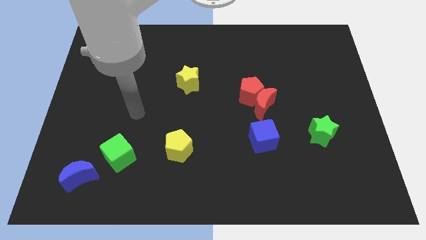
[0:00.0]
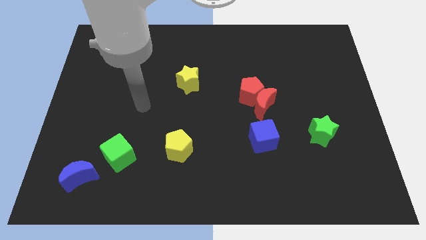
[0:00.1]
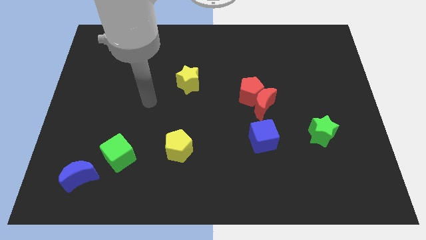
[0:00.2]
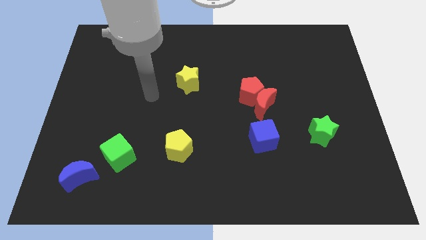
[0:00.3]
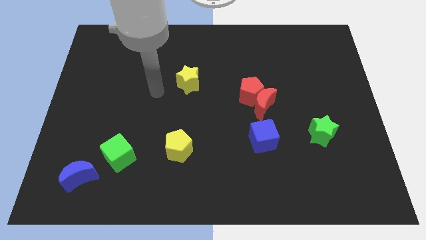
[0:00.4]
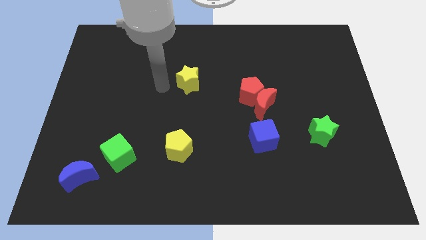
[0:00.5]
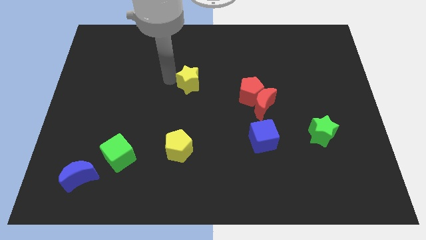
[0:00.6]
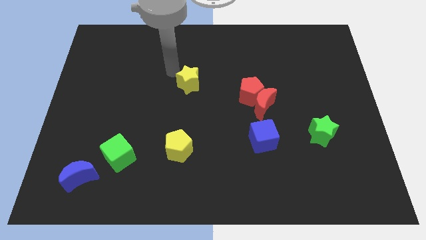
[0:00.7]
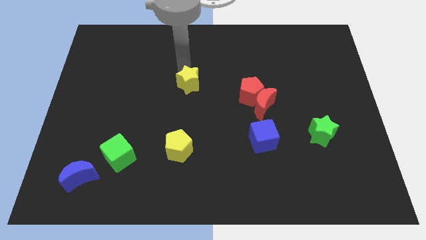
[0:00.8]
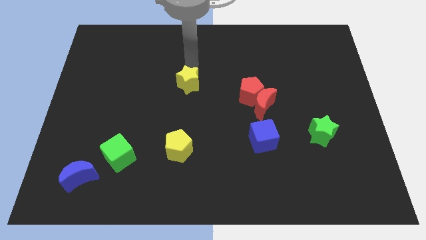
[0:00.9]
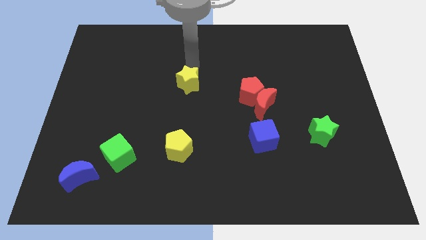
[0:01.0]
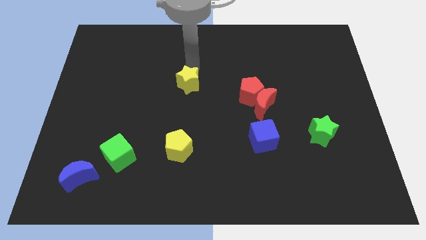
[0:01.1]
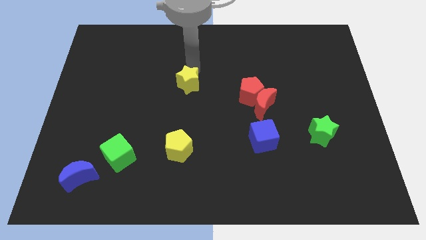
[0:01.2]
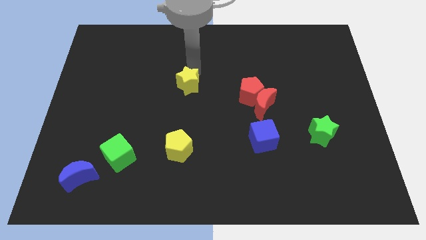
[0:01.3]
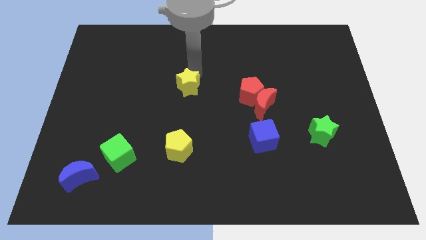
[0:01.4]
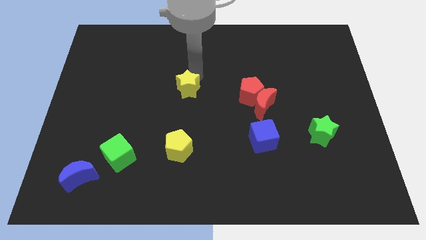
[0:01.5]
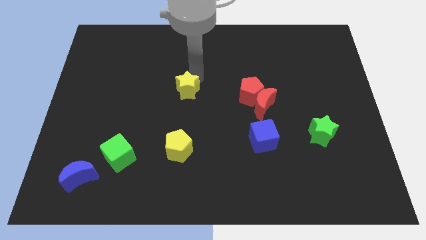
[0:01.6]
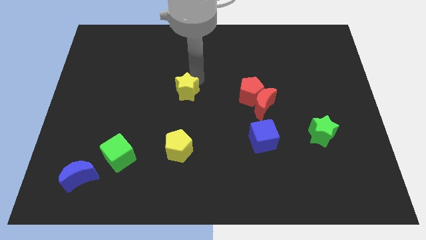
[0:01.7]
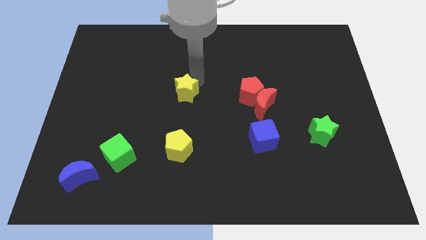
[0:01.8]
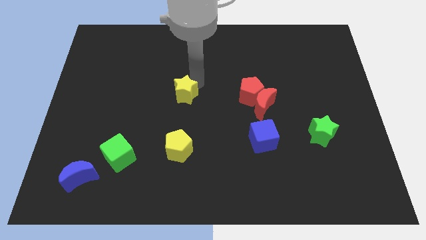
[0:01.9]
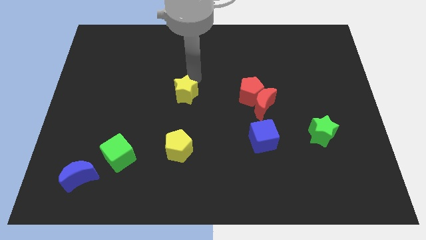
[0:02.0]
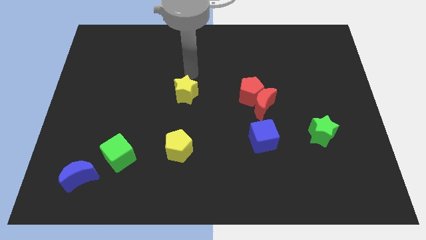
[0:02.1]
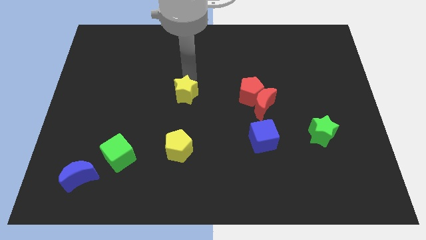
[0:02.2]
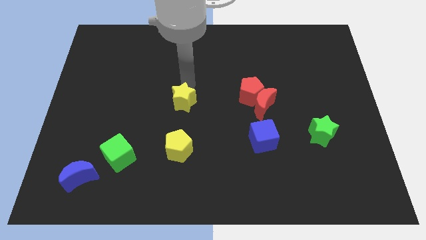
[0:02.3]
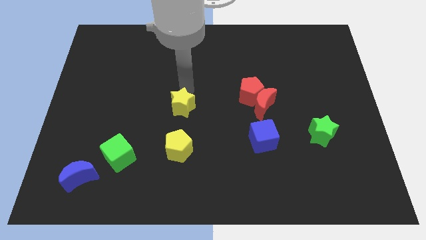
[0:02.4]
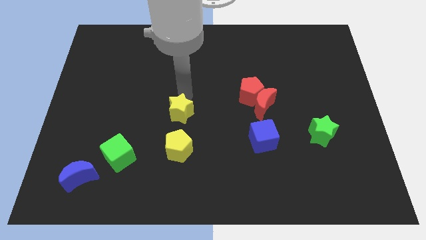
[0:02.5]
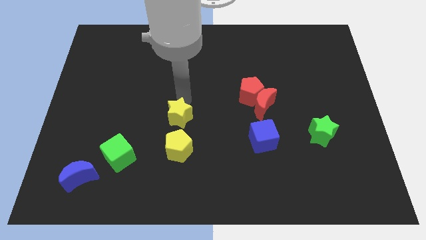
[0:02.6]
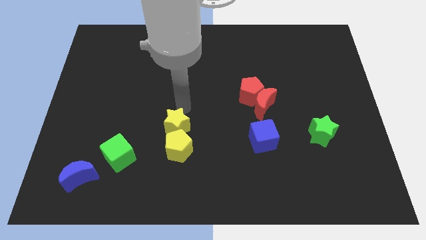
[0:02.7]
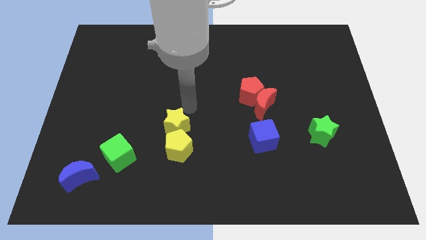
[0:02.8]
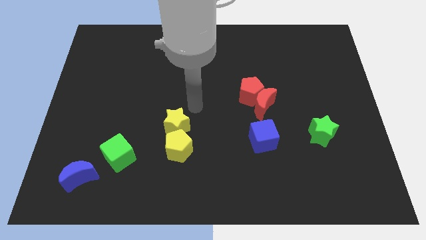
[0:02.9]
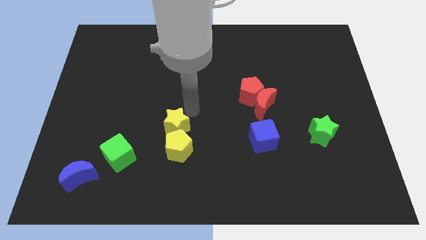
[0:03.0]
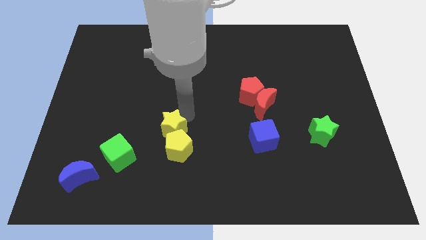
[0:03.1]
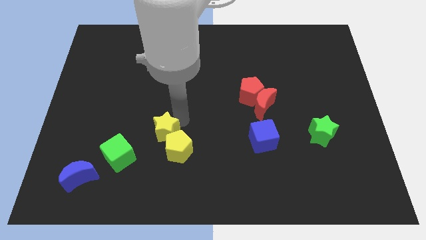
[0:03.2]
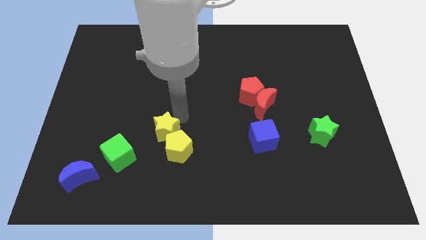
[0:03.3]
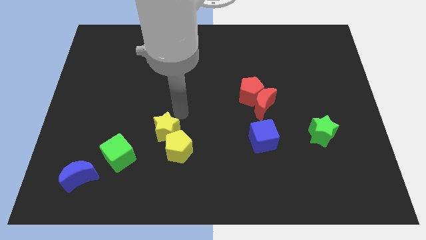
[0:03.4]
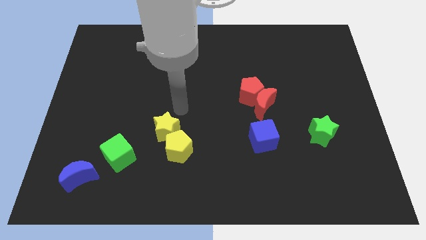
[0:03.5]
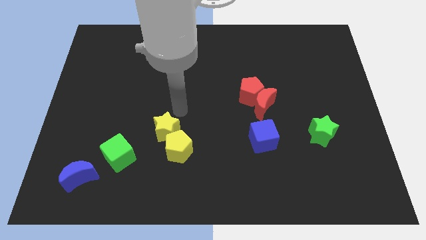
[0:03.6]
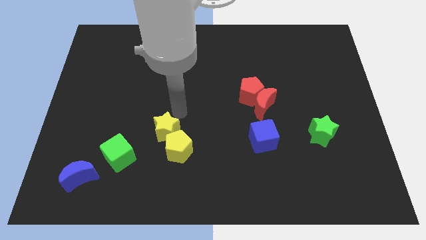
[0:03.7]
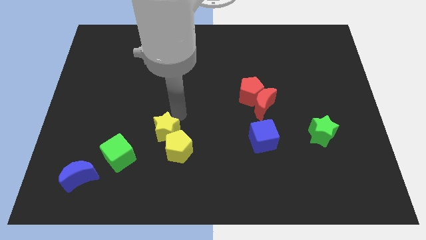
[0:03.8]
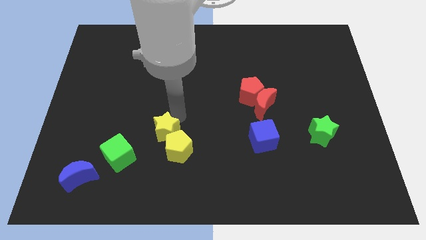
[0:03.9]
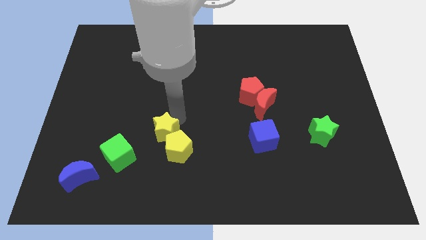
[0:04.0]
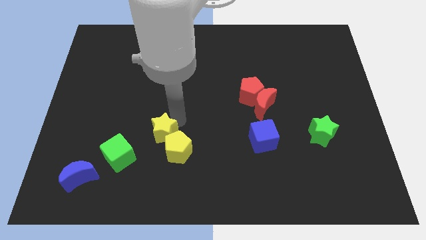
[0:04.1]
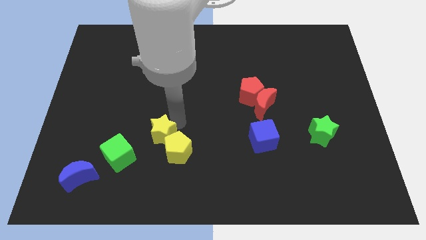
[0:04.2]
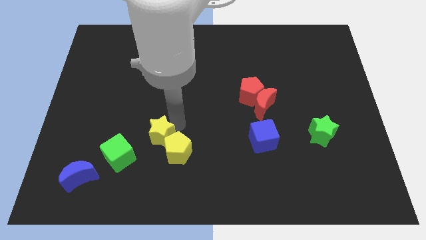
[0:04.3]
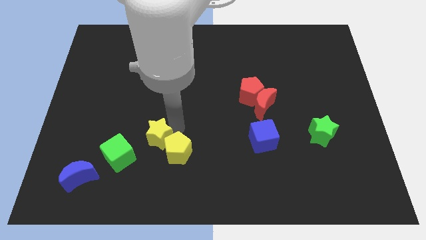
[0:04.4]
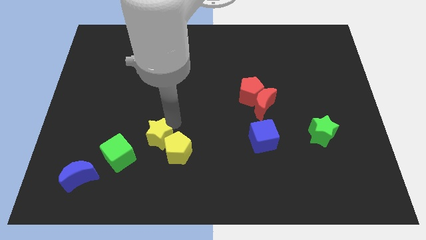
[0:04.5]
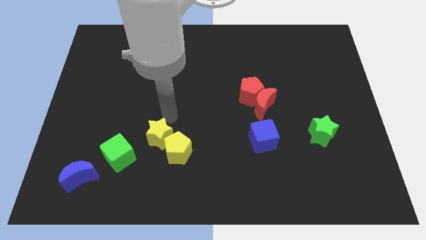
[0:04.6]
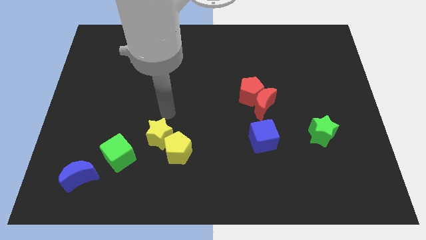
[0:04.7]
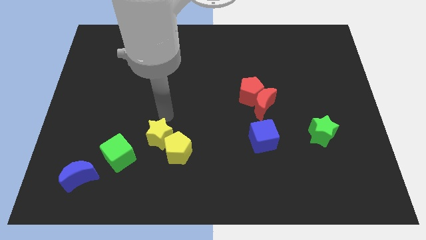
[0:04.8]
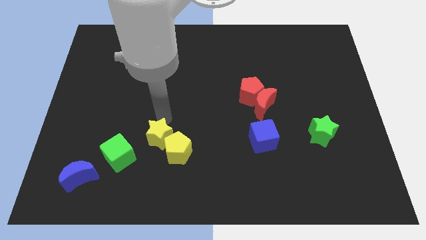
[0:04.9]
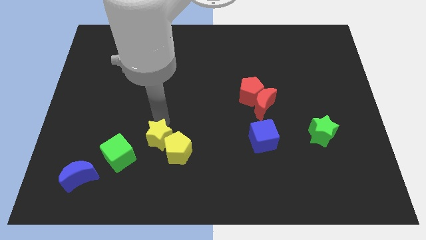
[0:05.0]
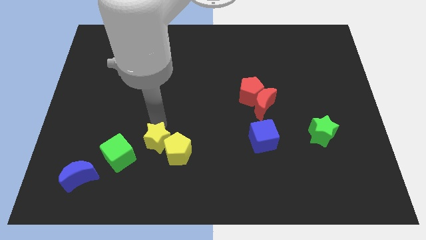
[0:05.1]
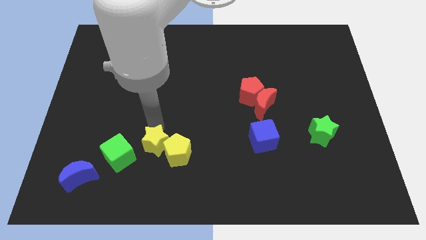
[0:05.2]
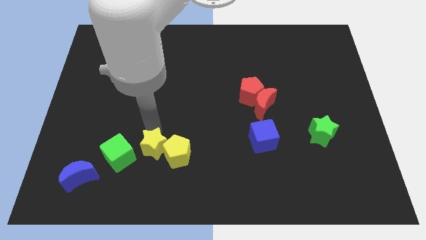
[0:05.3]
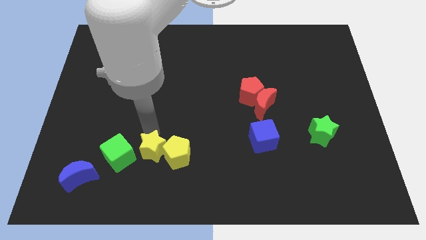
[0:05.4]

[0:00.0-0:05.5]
slide the yellow star to the bottom left of the yellow pentagon
